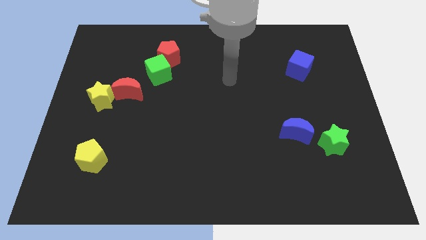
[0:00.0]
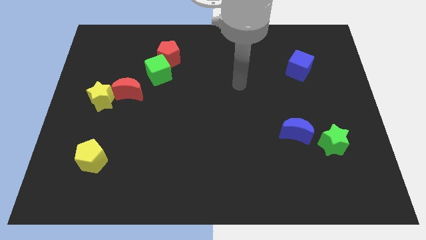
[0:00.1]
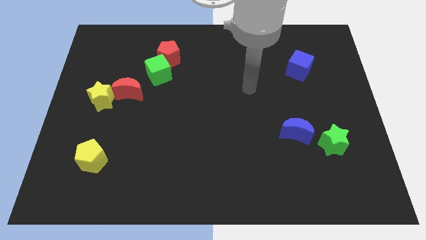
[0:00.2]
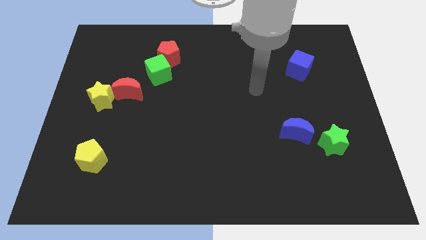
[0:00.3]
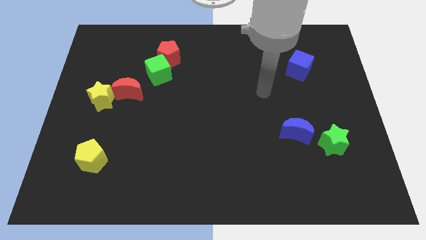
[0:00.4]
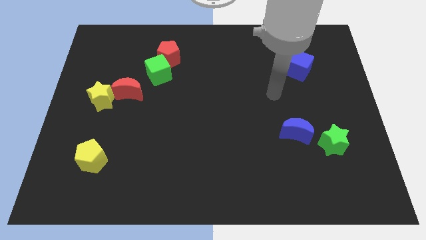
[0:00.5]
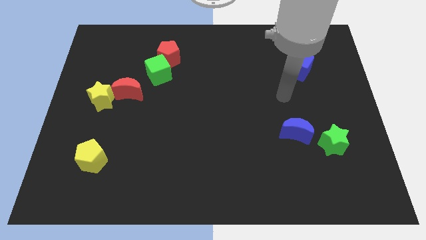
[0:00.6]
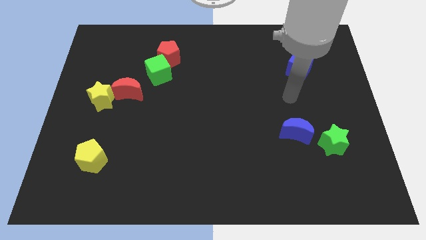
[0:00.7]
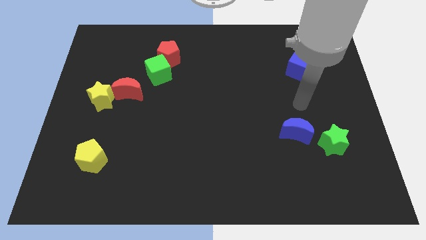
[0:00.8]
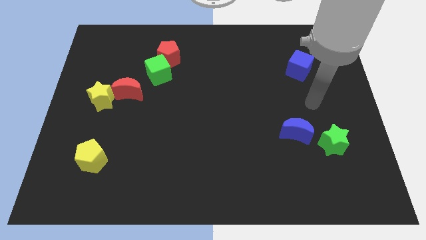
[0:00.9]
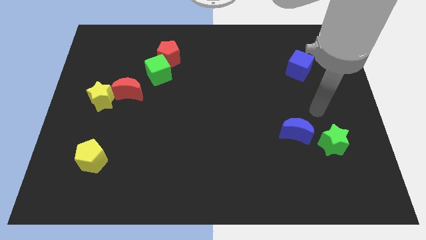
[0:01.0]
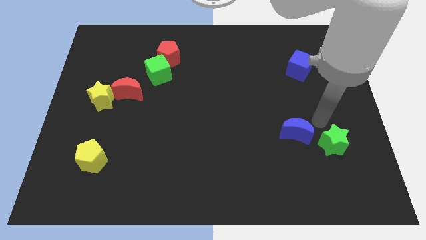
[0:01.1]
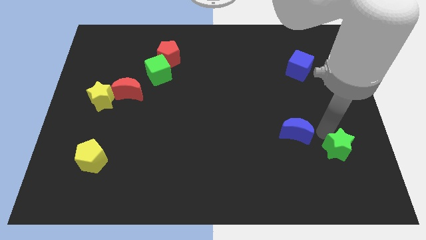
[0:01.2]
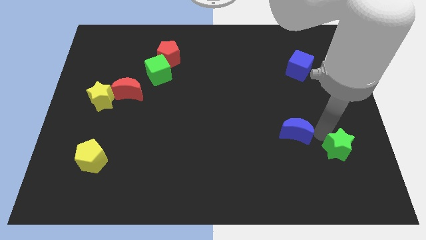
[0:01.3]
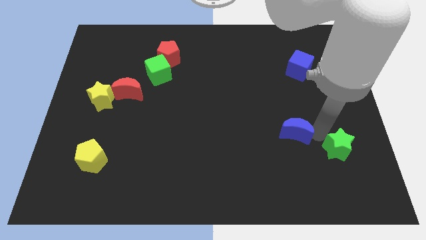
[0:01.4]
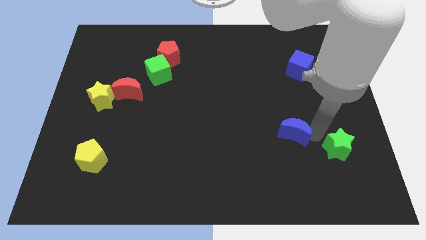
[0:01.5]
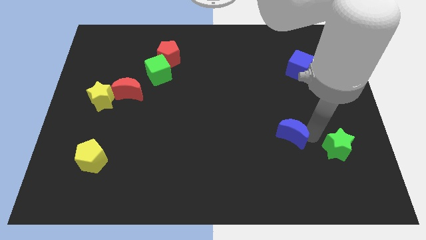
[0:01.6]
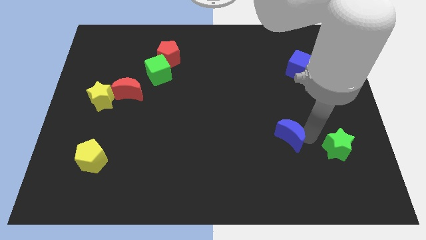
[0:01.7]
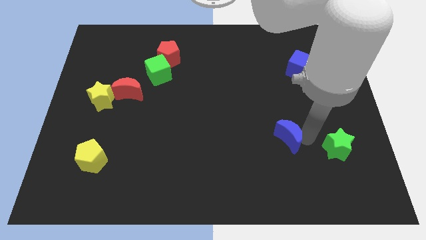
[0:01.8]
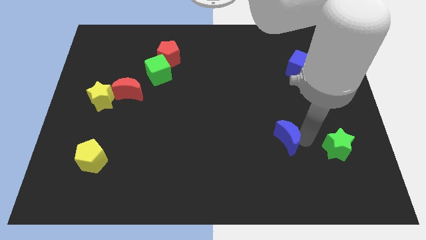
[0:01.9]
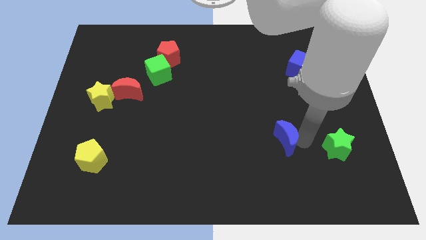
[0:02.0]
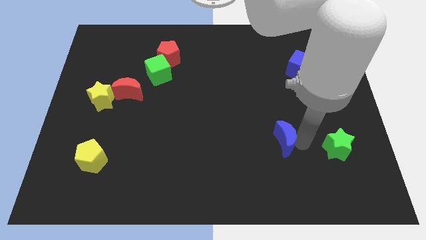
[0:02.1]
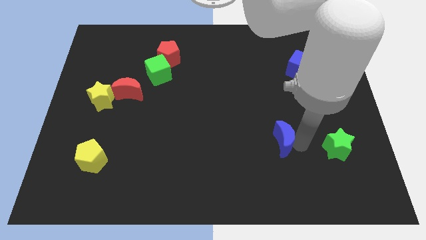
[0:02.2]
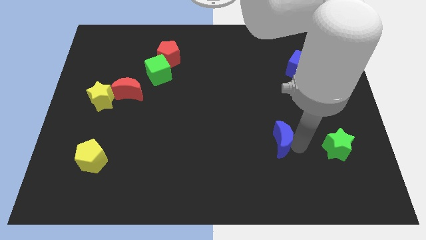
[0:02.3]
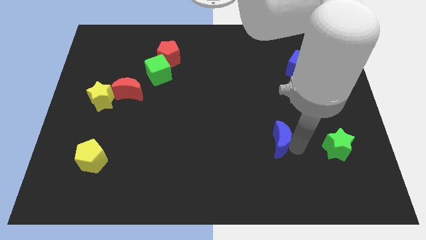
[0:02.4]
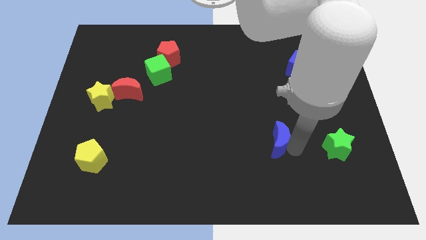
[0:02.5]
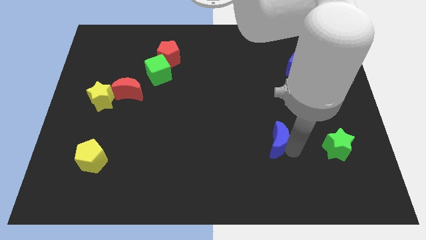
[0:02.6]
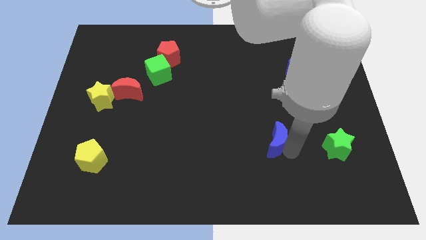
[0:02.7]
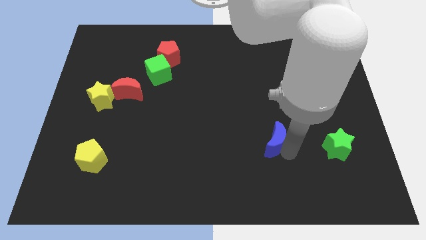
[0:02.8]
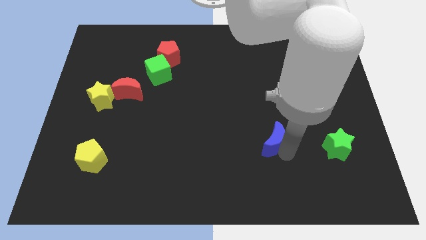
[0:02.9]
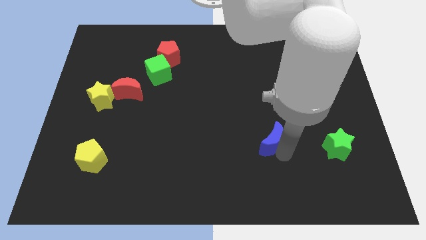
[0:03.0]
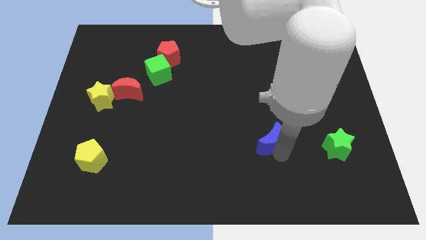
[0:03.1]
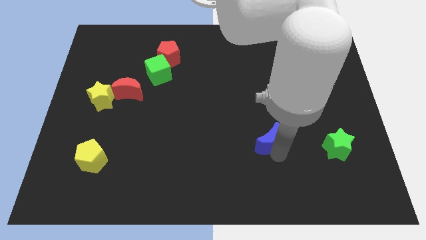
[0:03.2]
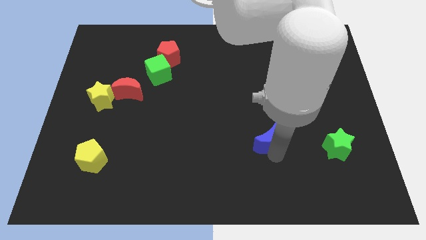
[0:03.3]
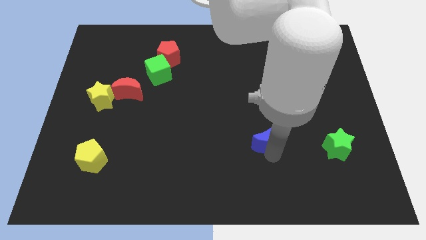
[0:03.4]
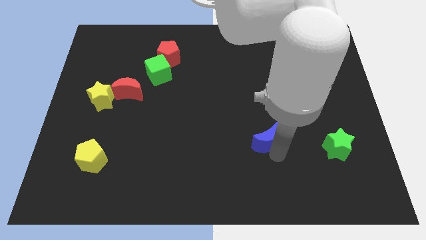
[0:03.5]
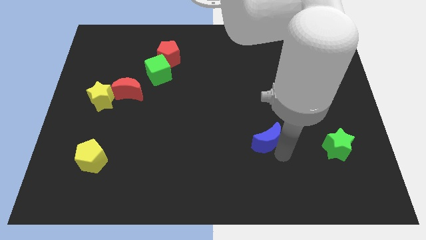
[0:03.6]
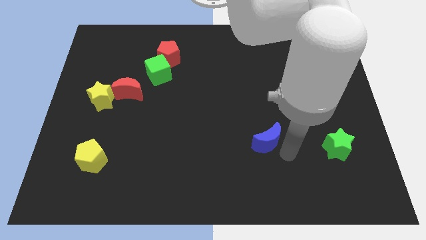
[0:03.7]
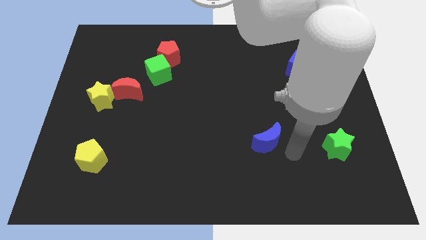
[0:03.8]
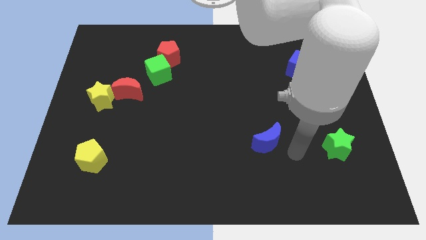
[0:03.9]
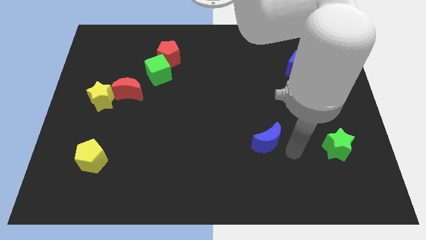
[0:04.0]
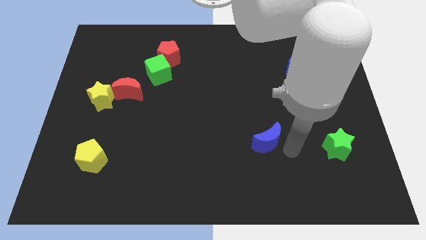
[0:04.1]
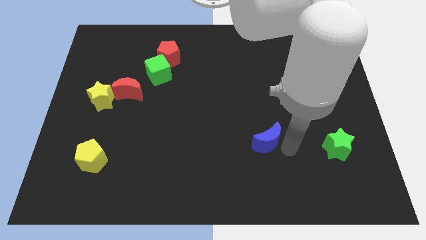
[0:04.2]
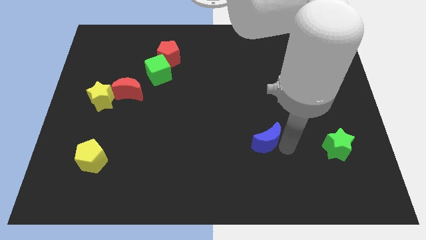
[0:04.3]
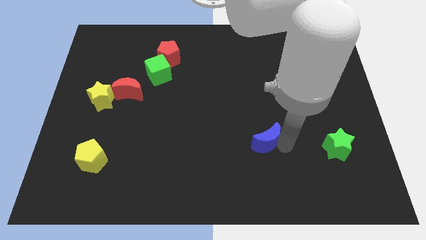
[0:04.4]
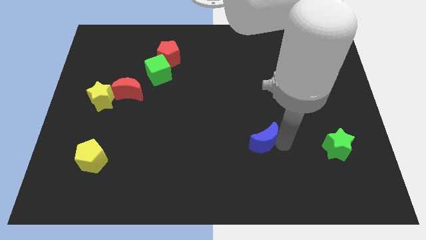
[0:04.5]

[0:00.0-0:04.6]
slightly move the blue moon to the left

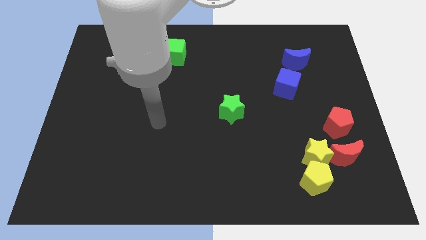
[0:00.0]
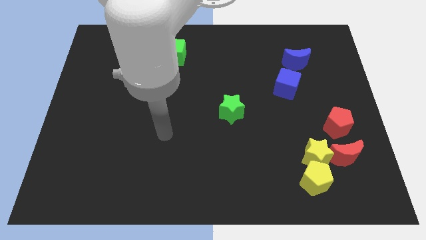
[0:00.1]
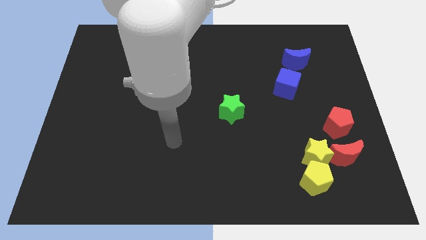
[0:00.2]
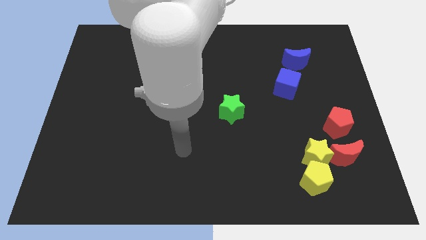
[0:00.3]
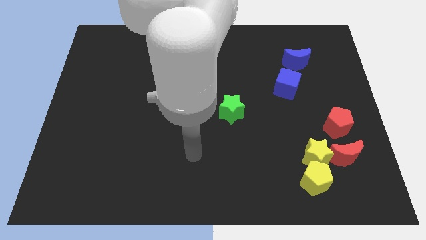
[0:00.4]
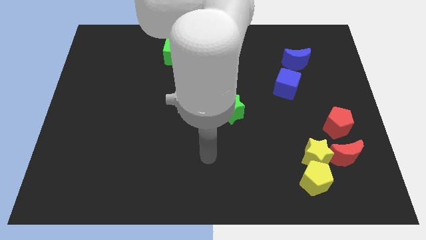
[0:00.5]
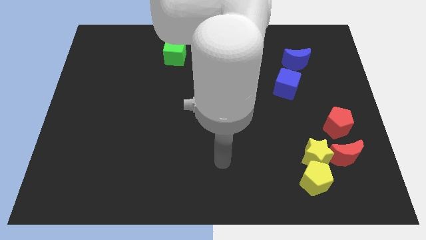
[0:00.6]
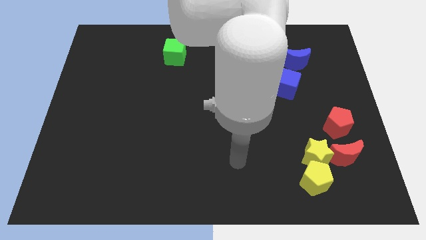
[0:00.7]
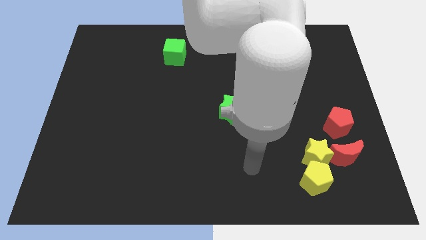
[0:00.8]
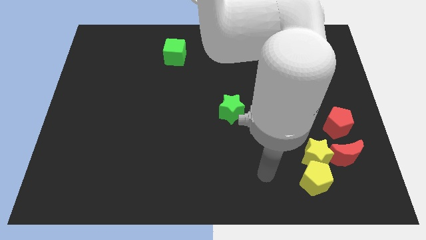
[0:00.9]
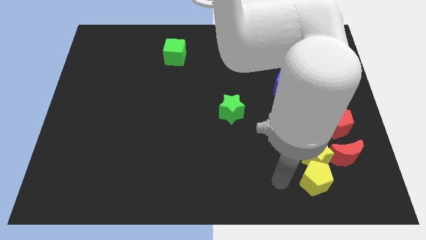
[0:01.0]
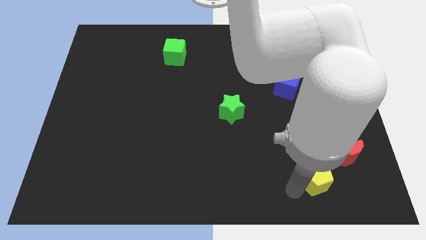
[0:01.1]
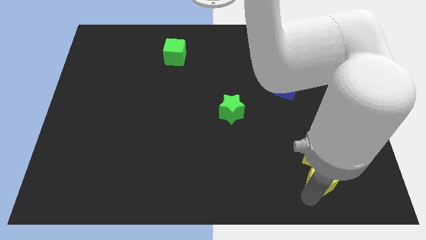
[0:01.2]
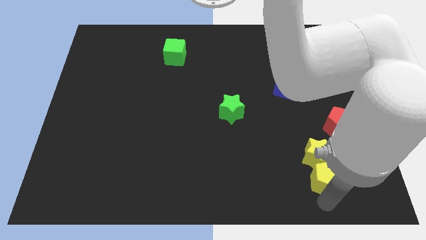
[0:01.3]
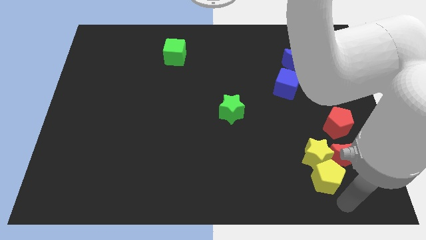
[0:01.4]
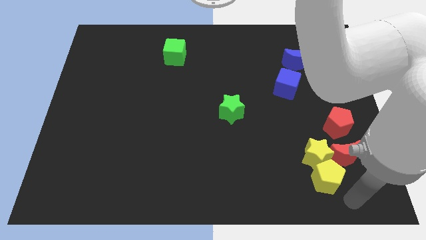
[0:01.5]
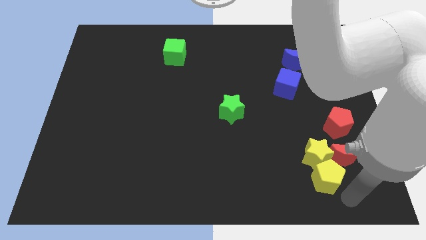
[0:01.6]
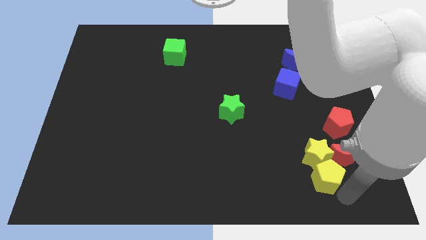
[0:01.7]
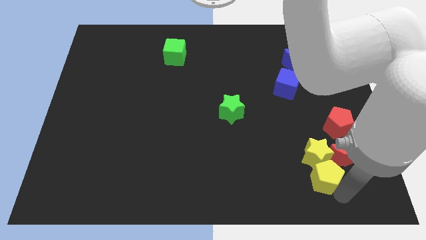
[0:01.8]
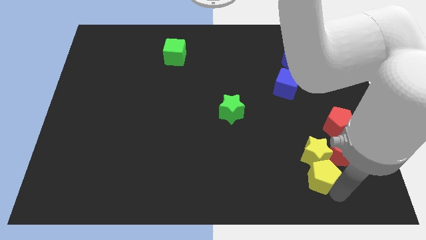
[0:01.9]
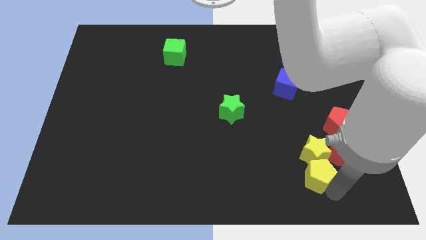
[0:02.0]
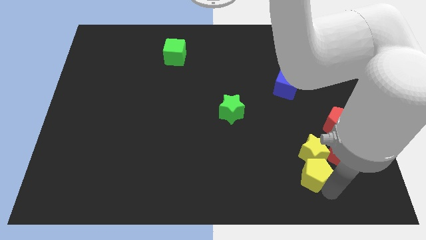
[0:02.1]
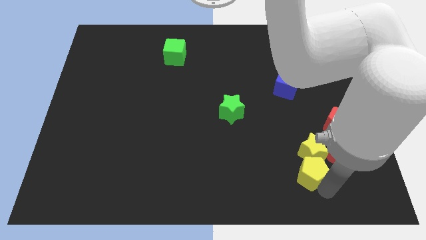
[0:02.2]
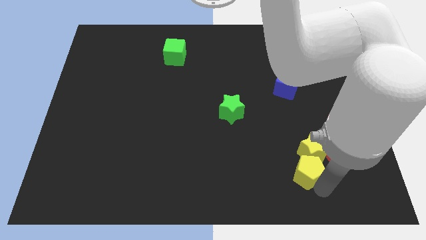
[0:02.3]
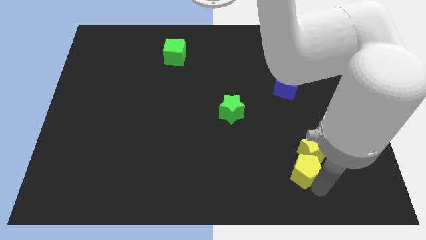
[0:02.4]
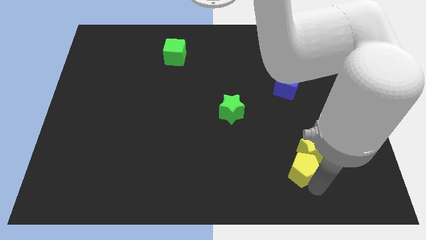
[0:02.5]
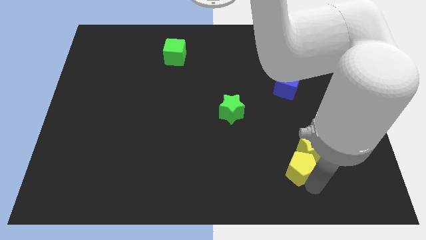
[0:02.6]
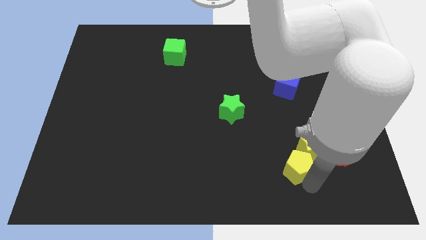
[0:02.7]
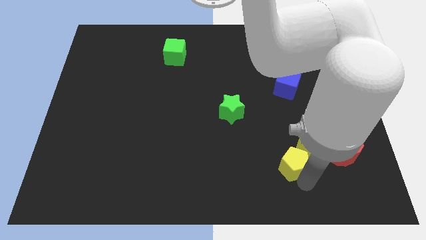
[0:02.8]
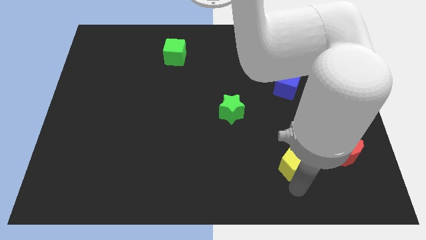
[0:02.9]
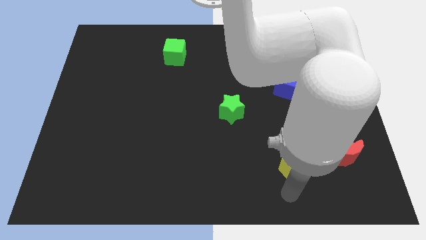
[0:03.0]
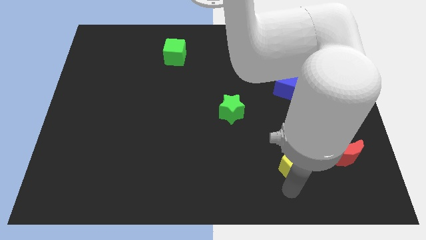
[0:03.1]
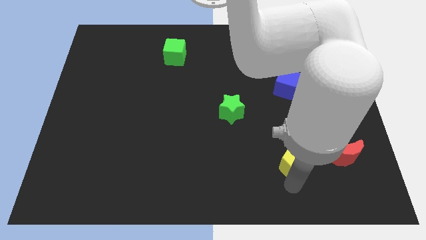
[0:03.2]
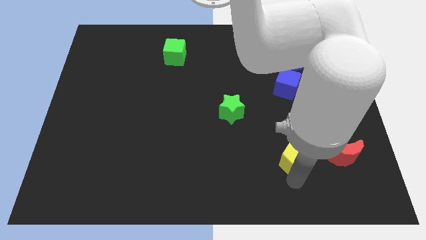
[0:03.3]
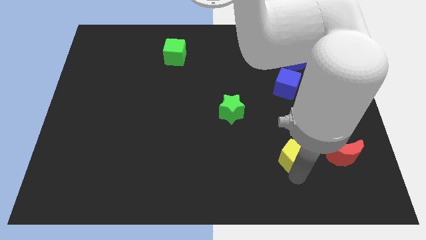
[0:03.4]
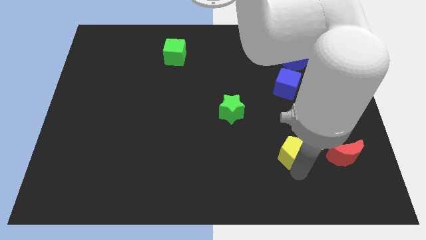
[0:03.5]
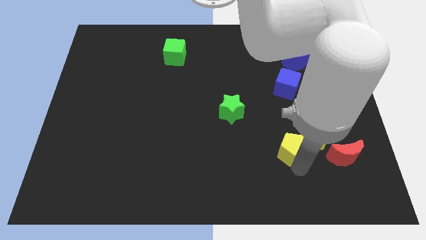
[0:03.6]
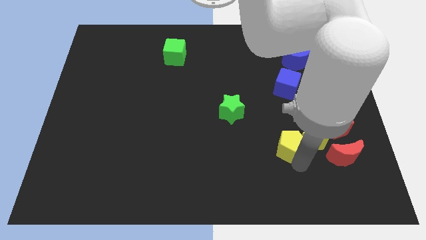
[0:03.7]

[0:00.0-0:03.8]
move the yellow pentagon a little up
